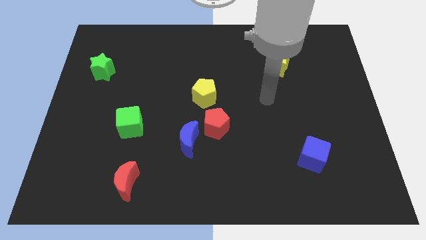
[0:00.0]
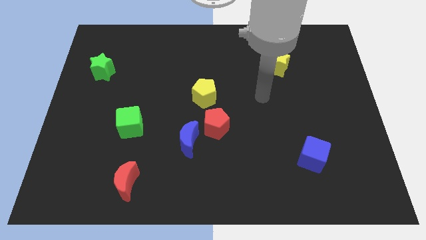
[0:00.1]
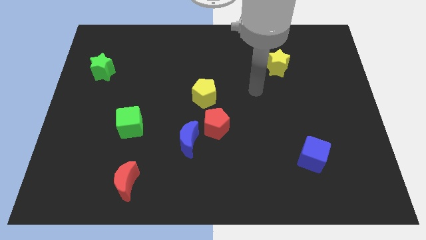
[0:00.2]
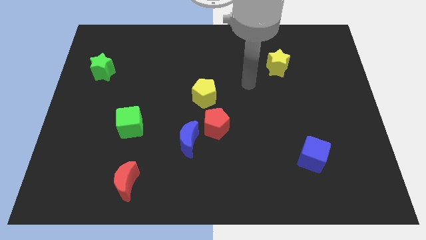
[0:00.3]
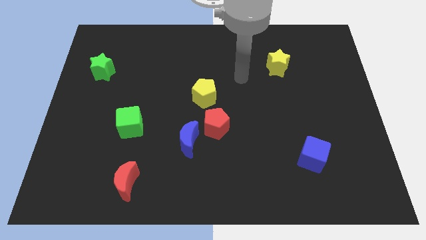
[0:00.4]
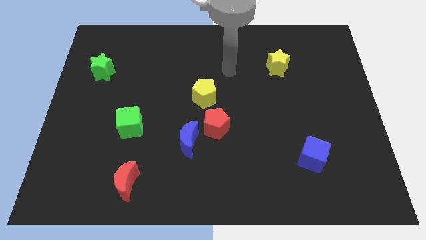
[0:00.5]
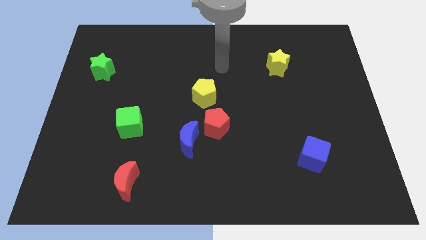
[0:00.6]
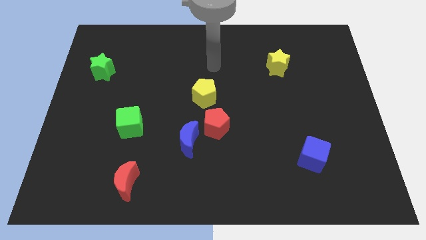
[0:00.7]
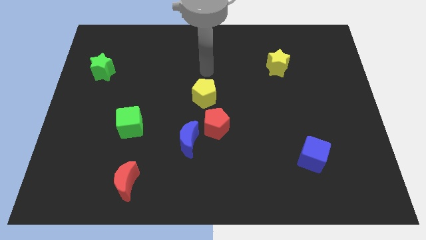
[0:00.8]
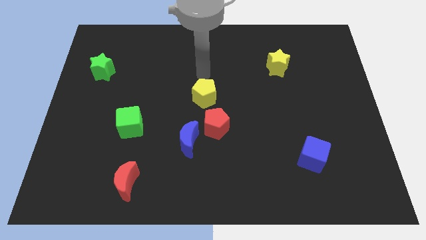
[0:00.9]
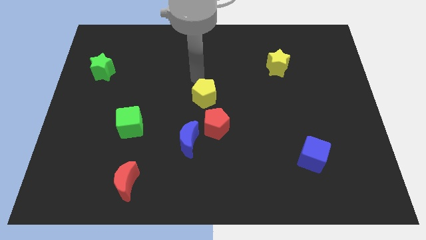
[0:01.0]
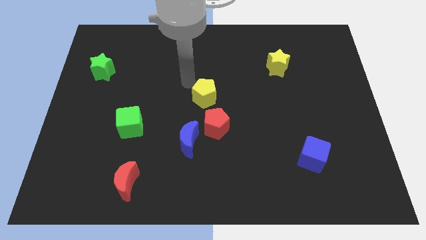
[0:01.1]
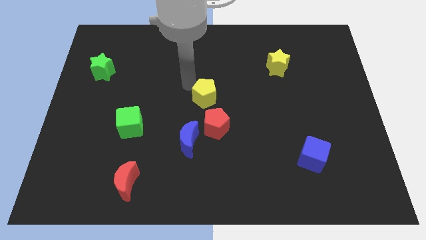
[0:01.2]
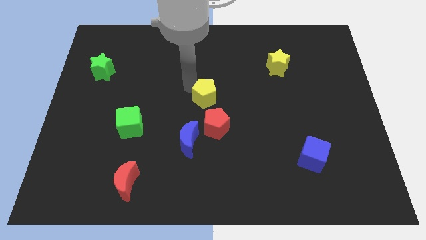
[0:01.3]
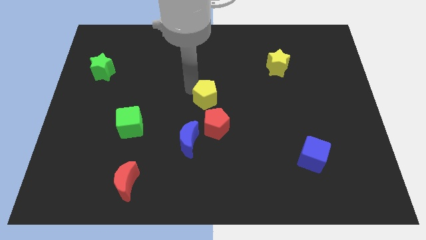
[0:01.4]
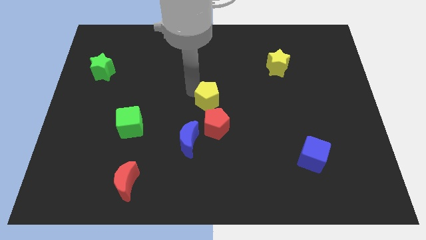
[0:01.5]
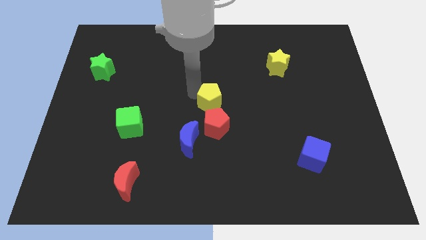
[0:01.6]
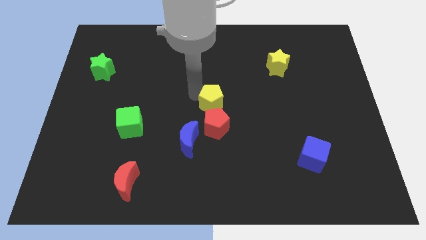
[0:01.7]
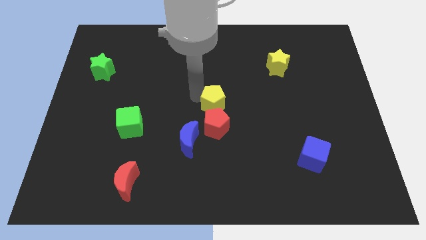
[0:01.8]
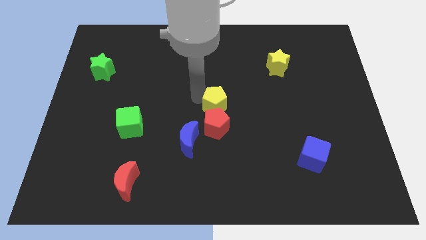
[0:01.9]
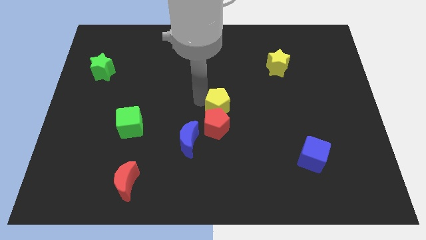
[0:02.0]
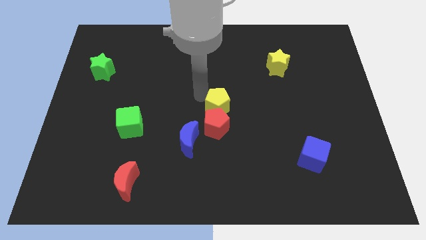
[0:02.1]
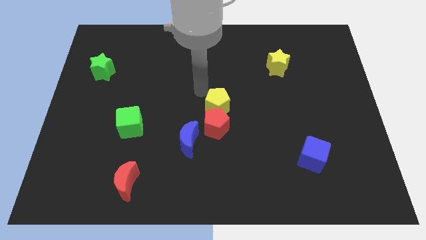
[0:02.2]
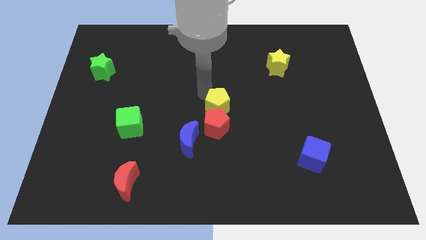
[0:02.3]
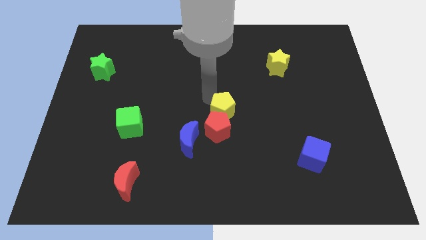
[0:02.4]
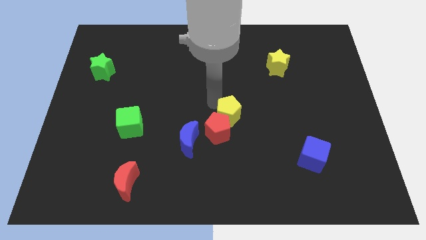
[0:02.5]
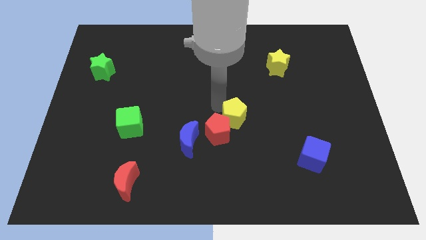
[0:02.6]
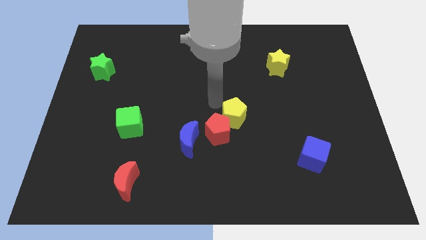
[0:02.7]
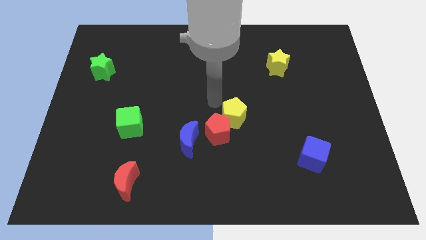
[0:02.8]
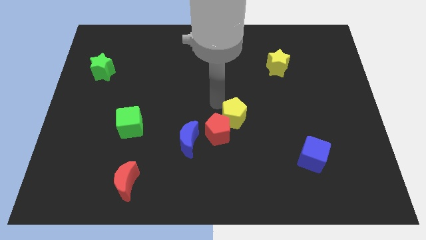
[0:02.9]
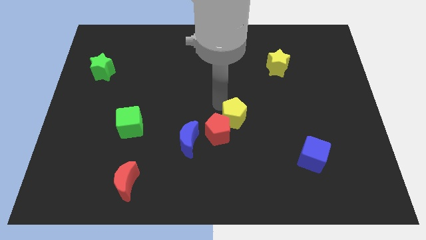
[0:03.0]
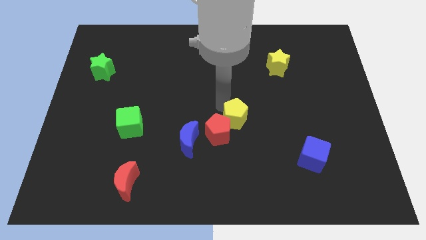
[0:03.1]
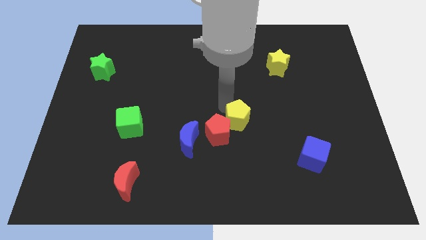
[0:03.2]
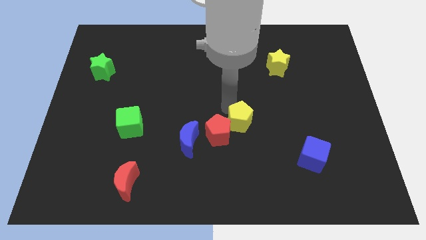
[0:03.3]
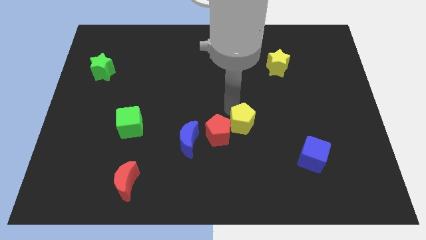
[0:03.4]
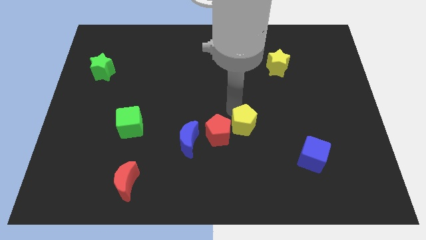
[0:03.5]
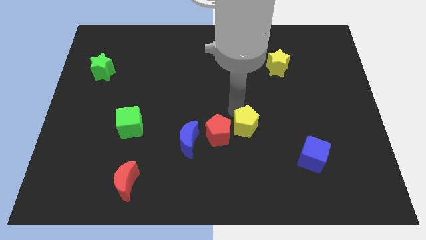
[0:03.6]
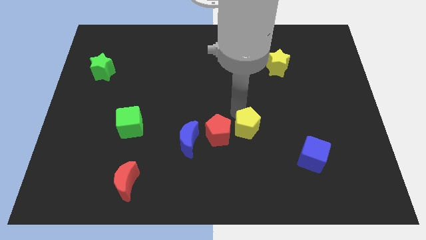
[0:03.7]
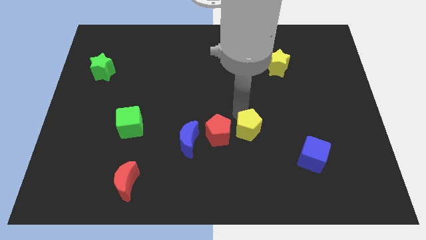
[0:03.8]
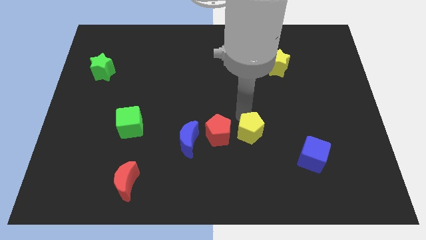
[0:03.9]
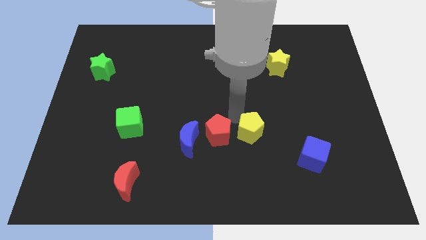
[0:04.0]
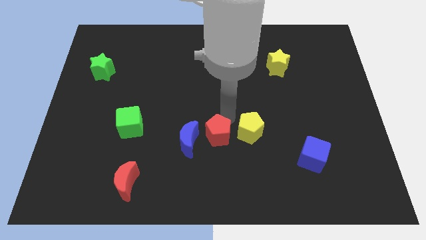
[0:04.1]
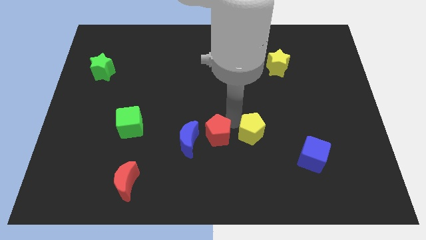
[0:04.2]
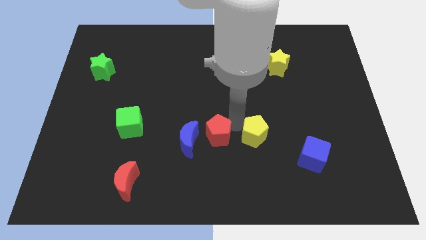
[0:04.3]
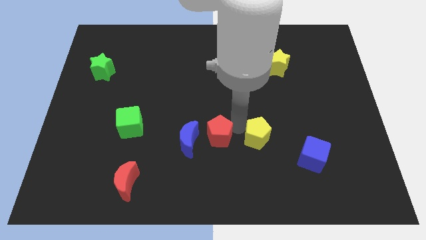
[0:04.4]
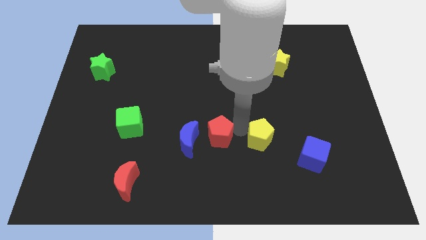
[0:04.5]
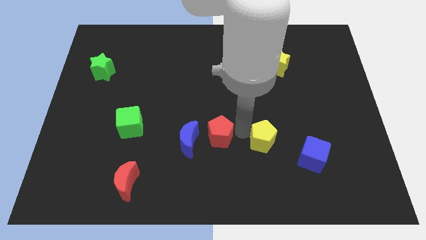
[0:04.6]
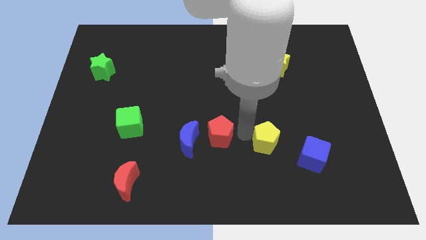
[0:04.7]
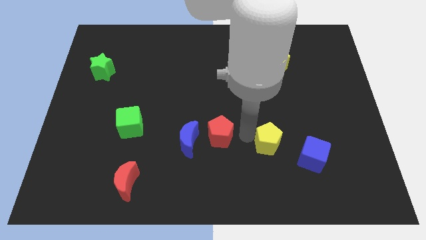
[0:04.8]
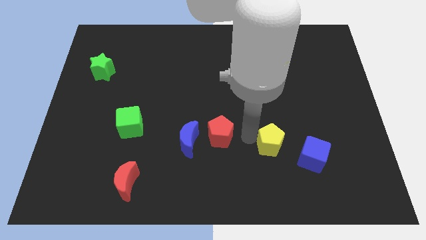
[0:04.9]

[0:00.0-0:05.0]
slide the yellow pentagon downwards and then to the right

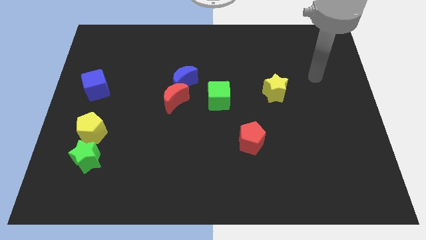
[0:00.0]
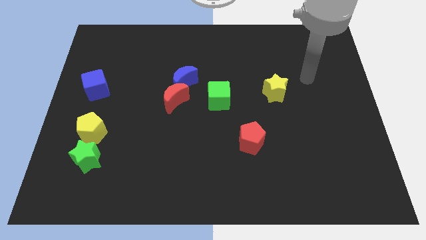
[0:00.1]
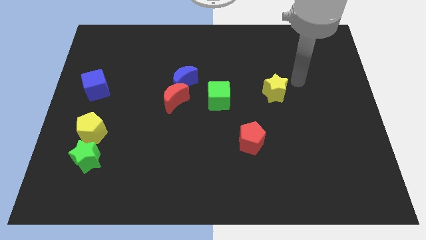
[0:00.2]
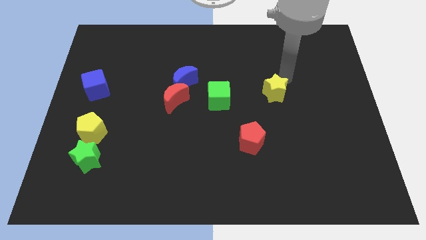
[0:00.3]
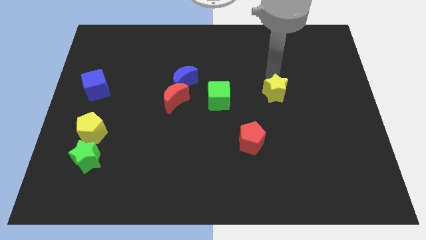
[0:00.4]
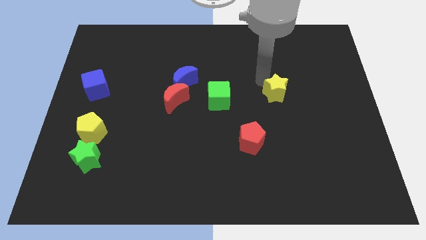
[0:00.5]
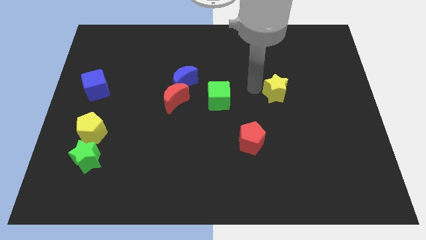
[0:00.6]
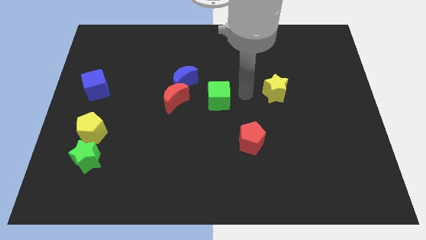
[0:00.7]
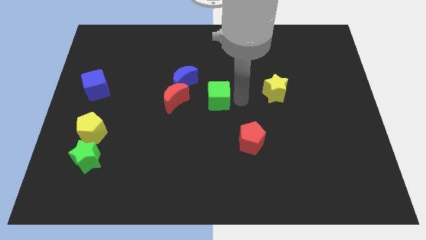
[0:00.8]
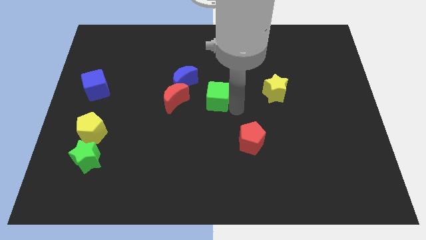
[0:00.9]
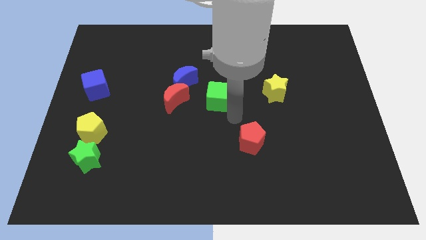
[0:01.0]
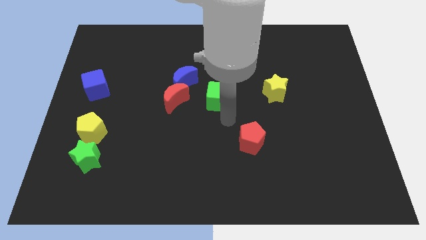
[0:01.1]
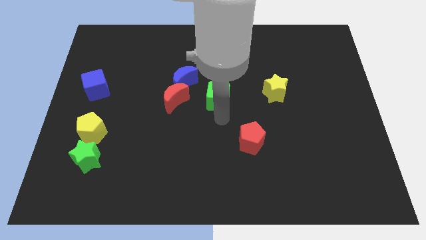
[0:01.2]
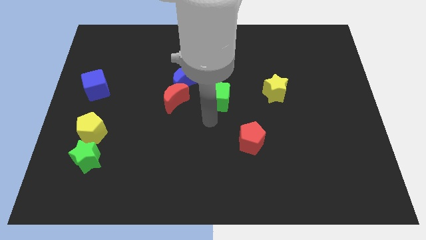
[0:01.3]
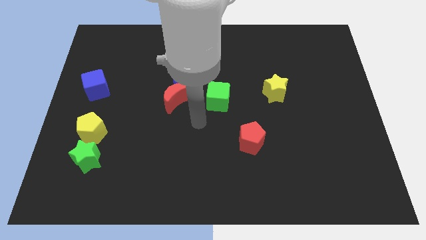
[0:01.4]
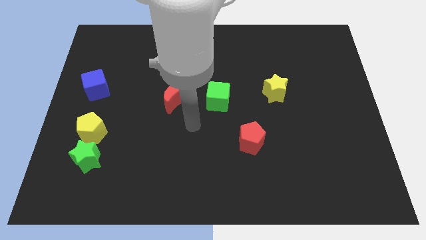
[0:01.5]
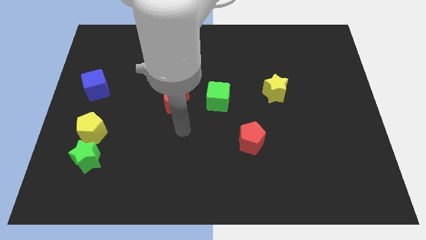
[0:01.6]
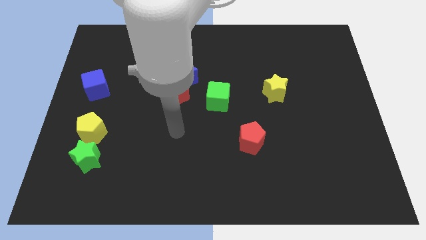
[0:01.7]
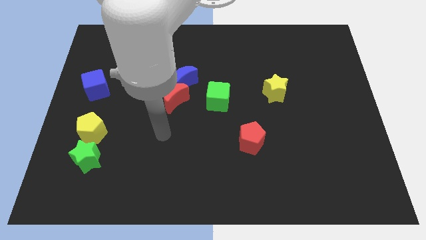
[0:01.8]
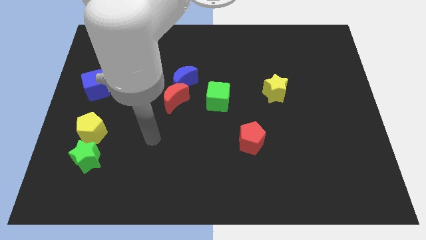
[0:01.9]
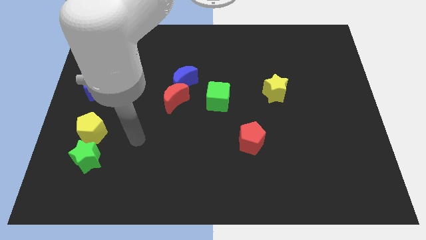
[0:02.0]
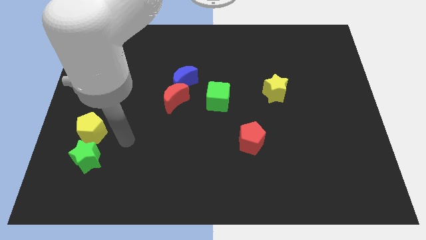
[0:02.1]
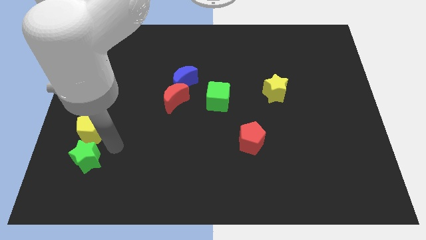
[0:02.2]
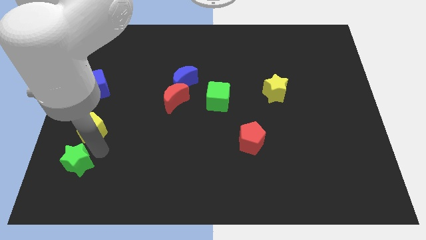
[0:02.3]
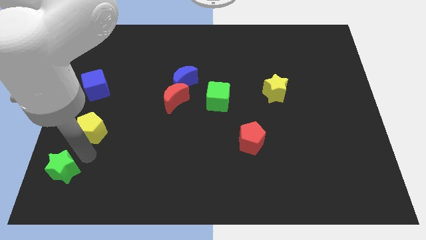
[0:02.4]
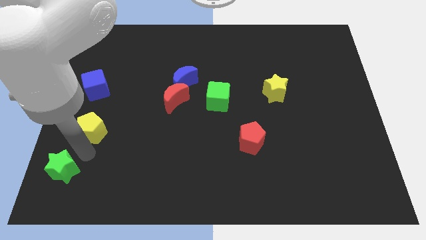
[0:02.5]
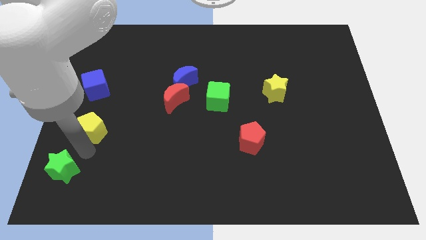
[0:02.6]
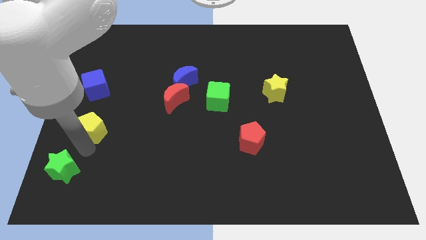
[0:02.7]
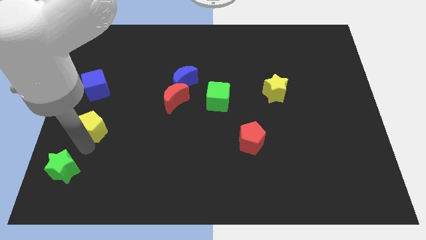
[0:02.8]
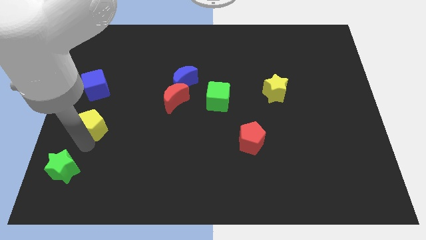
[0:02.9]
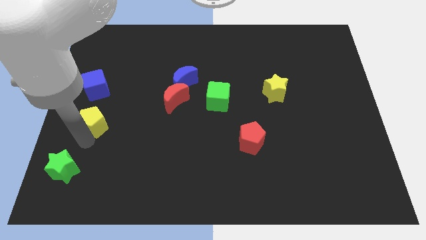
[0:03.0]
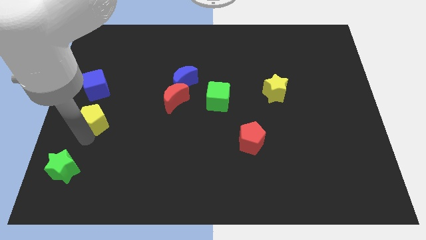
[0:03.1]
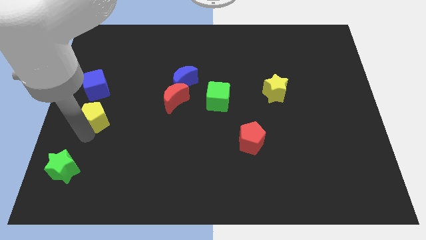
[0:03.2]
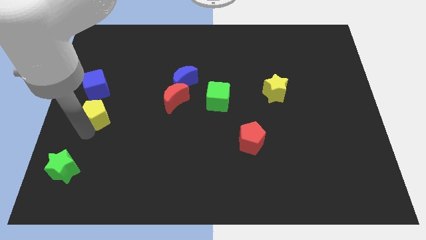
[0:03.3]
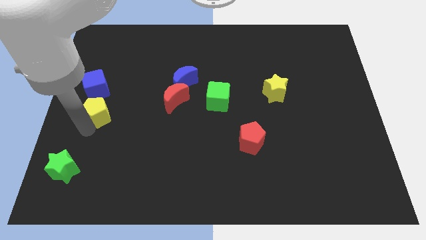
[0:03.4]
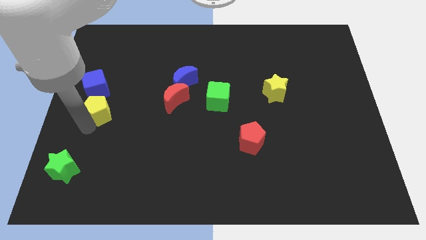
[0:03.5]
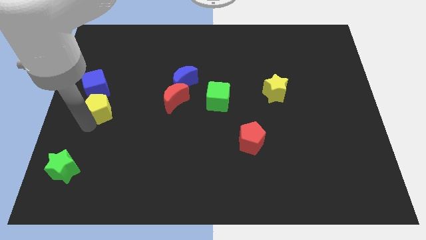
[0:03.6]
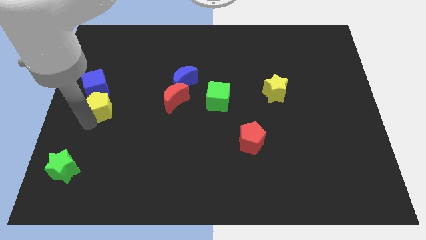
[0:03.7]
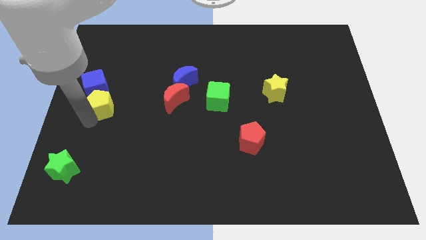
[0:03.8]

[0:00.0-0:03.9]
slightly push the yellow pentagon upwards
